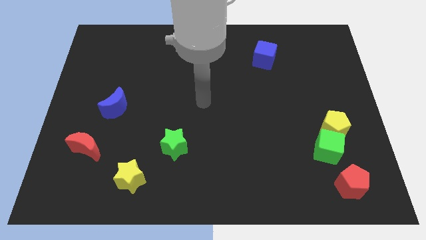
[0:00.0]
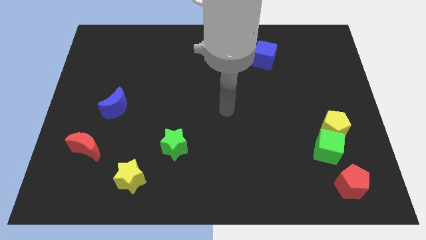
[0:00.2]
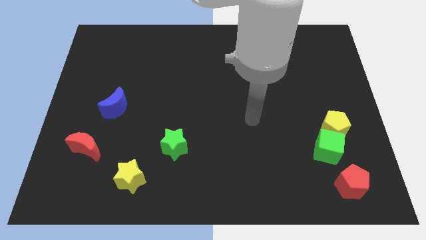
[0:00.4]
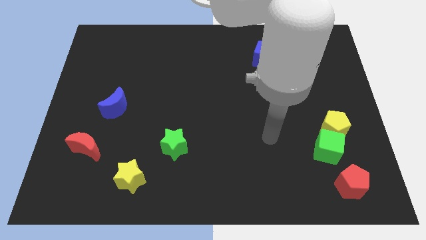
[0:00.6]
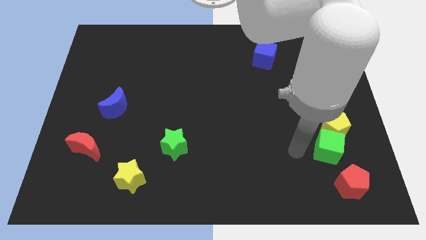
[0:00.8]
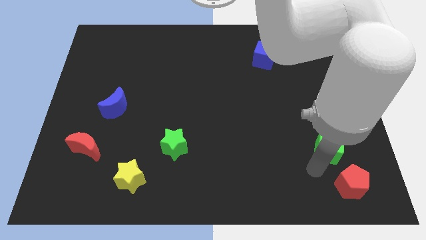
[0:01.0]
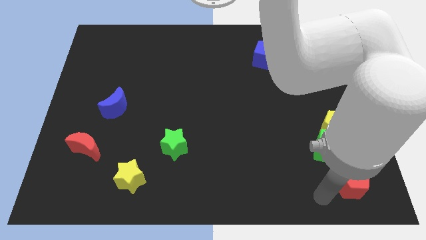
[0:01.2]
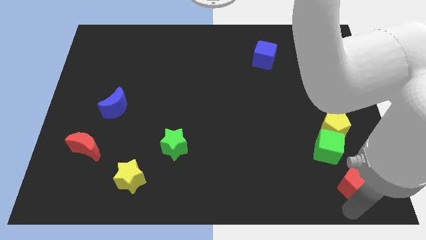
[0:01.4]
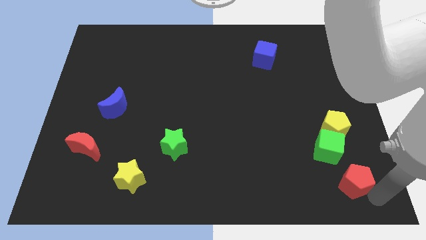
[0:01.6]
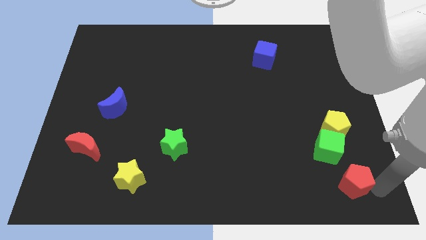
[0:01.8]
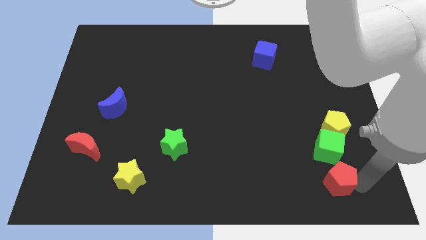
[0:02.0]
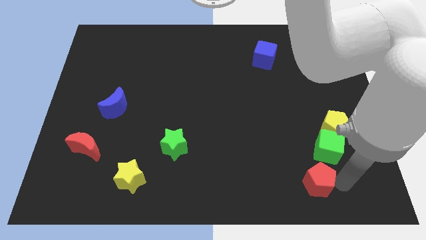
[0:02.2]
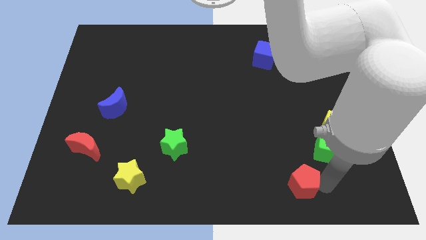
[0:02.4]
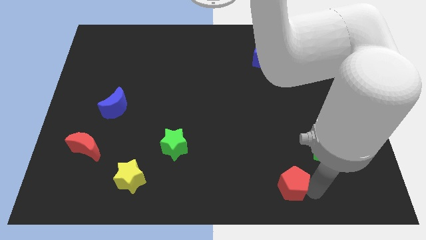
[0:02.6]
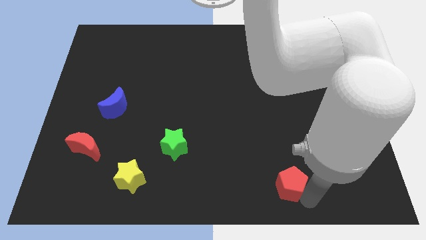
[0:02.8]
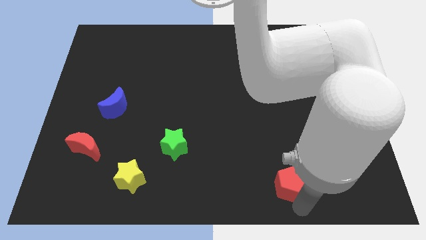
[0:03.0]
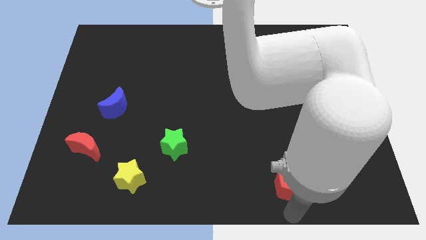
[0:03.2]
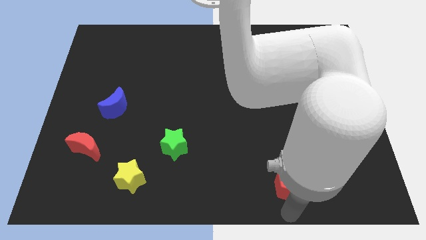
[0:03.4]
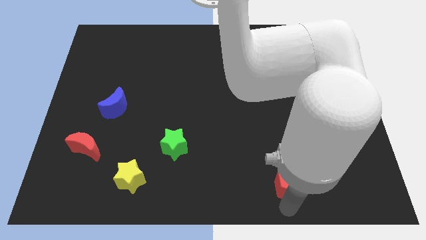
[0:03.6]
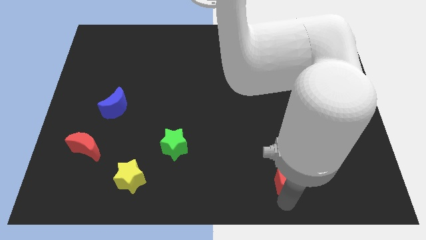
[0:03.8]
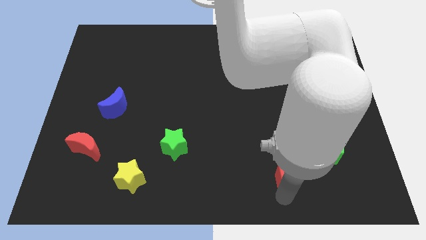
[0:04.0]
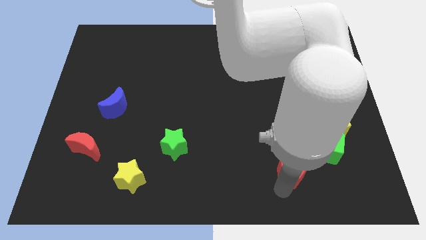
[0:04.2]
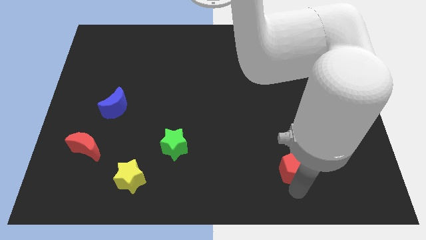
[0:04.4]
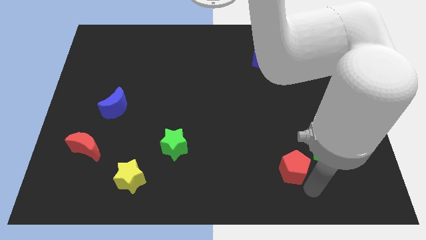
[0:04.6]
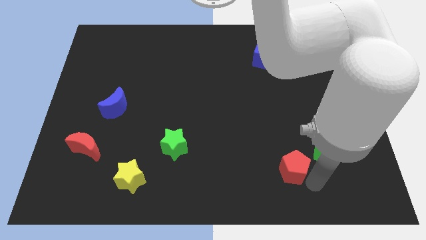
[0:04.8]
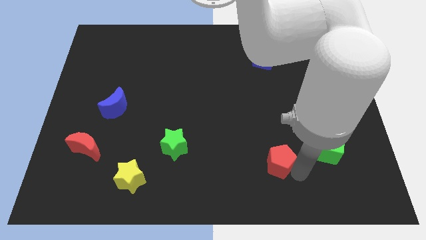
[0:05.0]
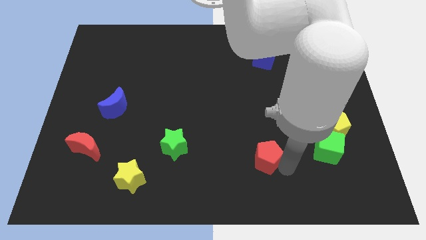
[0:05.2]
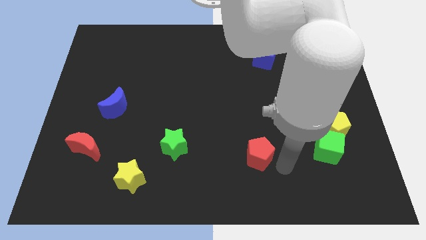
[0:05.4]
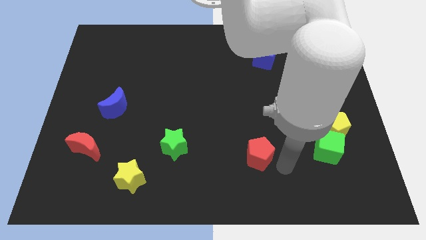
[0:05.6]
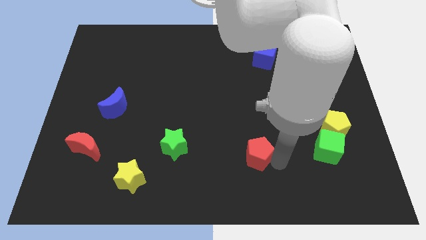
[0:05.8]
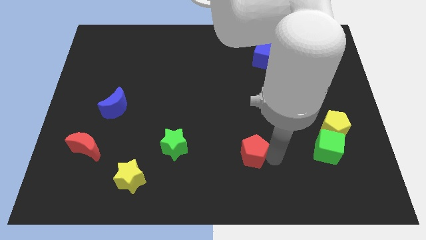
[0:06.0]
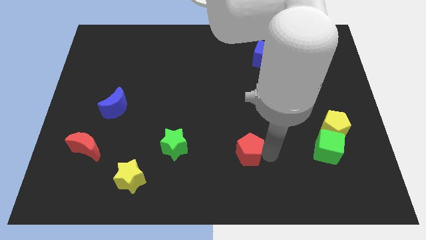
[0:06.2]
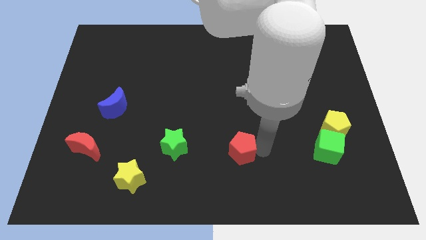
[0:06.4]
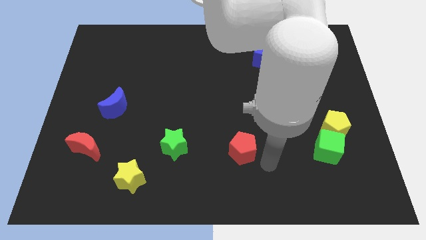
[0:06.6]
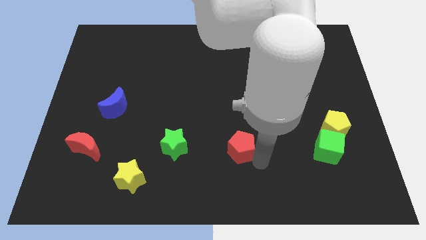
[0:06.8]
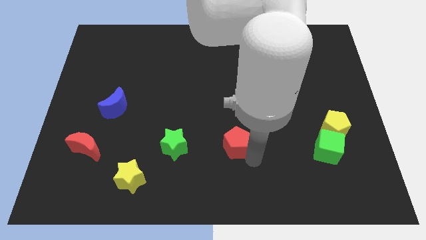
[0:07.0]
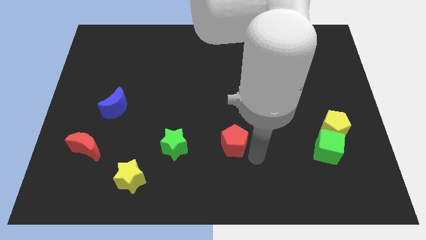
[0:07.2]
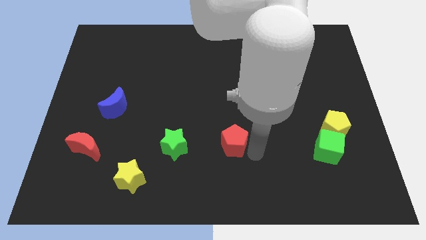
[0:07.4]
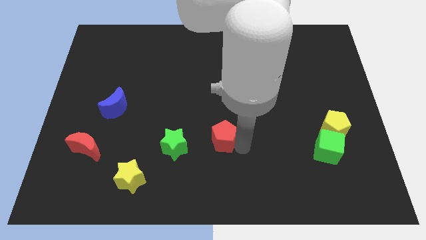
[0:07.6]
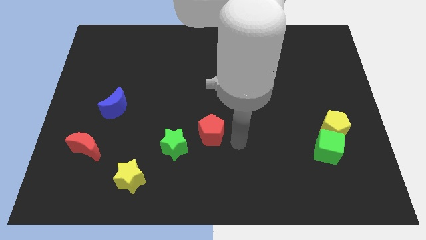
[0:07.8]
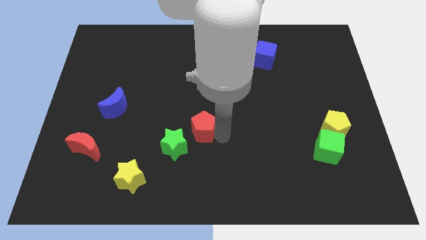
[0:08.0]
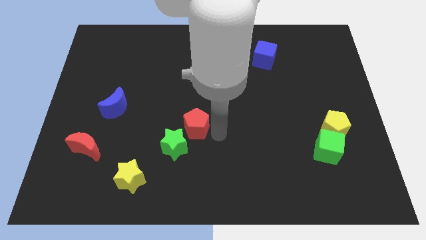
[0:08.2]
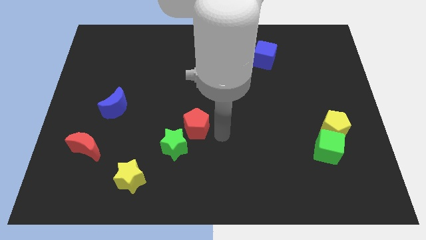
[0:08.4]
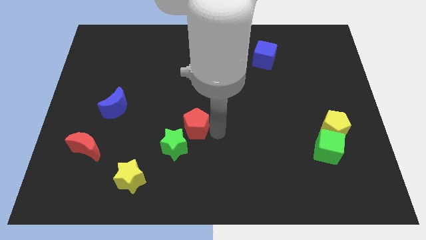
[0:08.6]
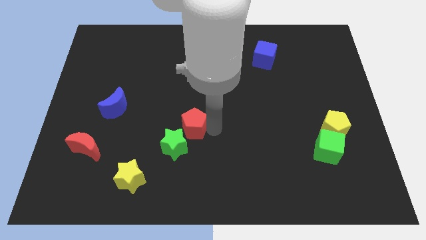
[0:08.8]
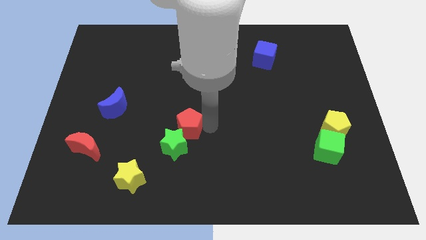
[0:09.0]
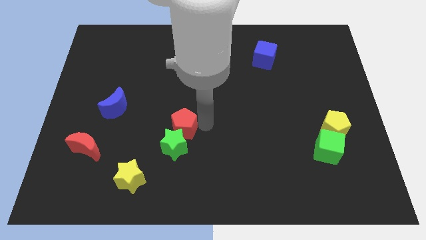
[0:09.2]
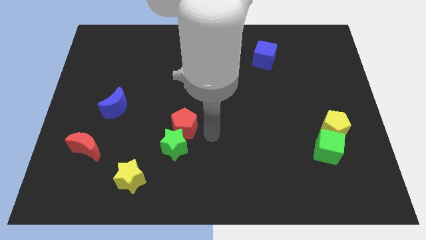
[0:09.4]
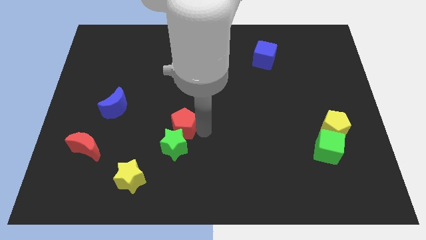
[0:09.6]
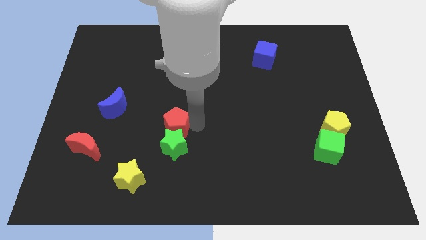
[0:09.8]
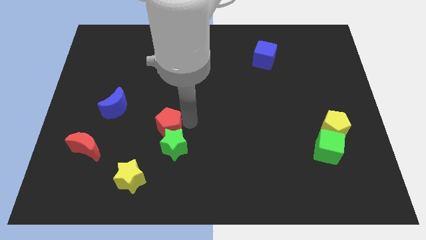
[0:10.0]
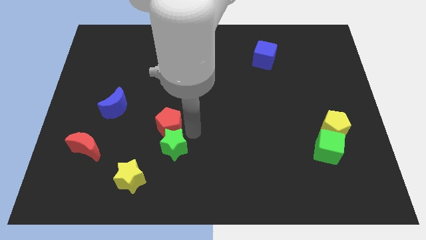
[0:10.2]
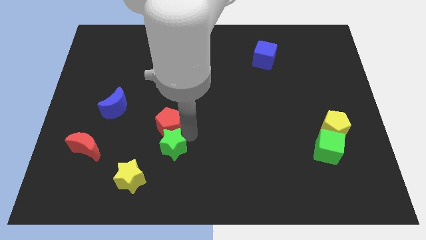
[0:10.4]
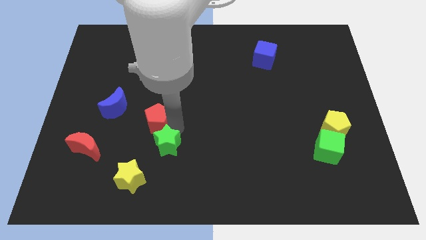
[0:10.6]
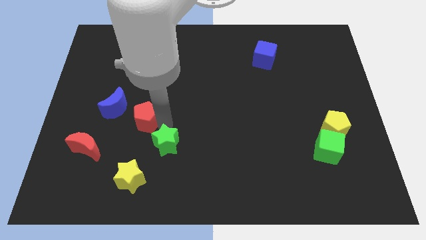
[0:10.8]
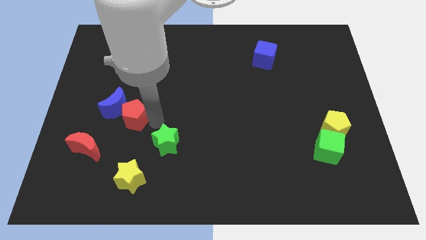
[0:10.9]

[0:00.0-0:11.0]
push the red pentagon to the blue moon

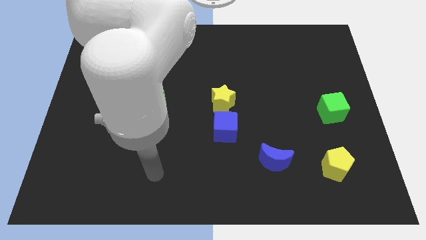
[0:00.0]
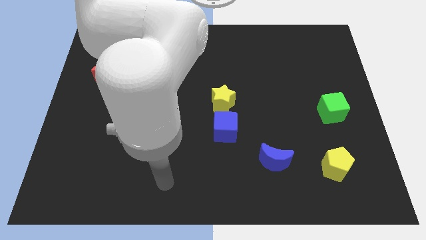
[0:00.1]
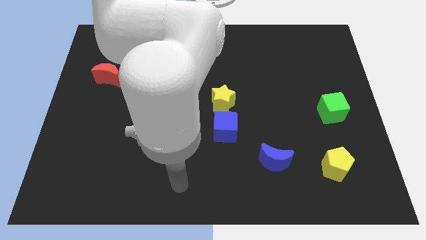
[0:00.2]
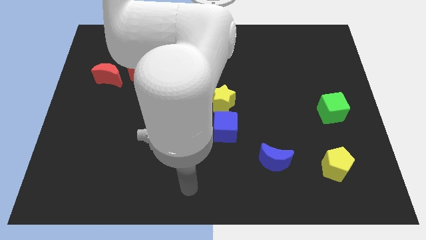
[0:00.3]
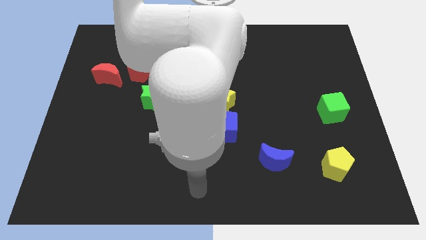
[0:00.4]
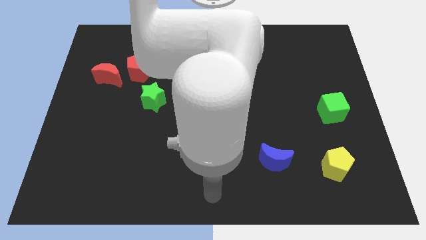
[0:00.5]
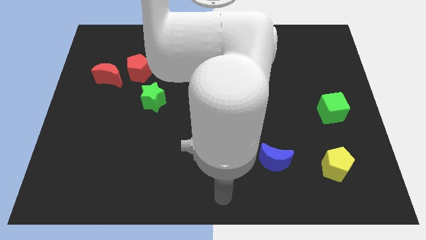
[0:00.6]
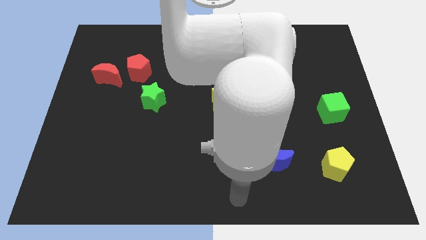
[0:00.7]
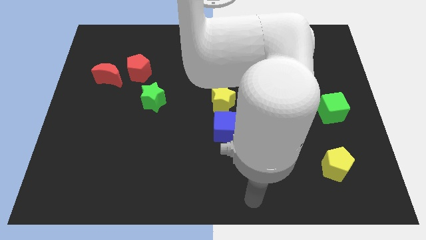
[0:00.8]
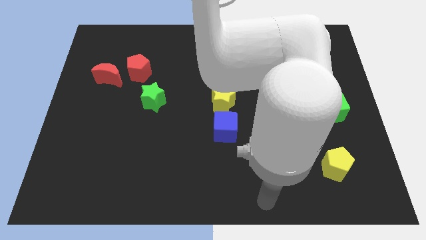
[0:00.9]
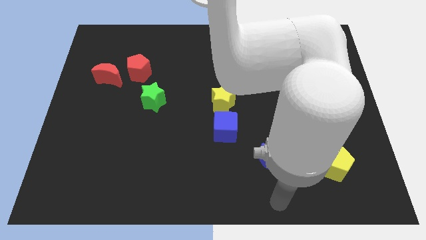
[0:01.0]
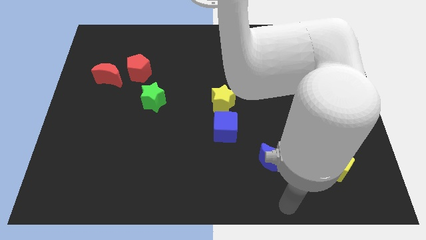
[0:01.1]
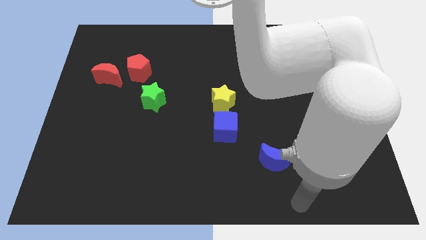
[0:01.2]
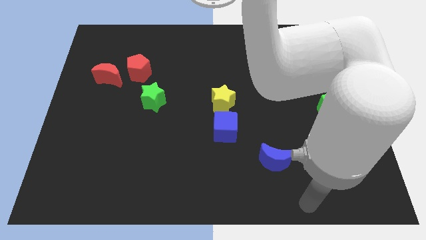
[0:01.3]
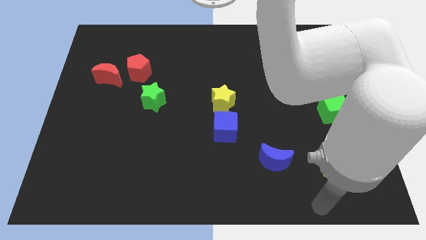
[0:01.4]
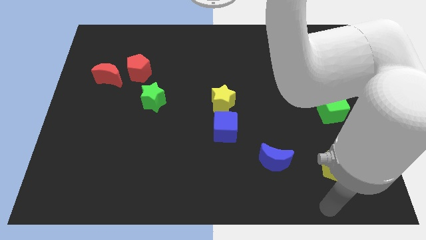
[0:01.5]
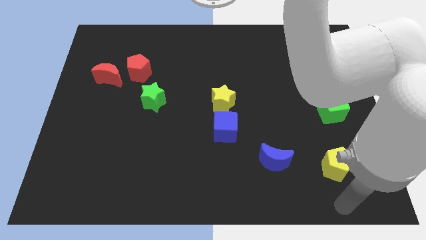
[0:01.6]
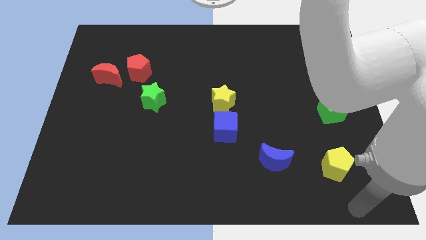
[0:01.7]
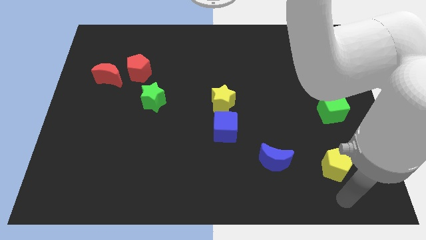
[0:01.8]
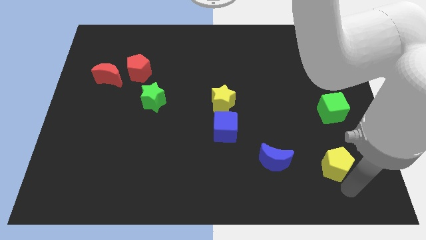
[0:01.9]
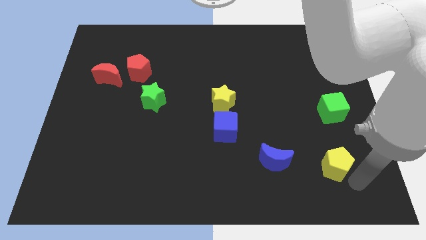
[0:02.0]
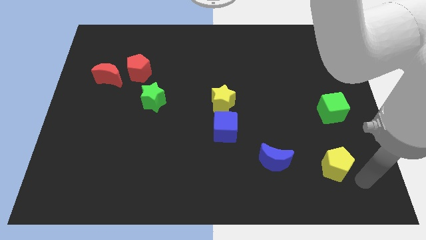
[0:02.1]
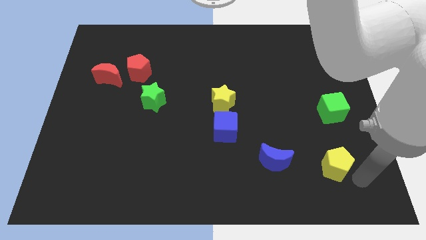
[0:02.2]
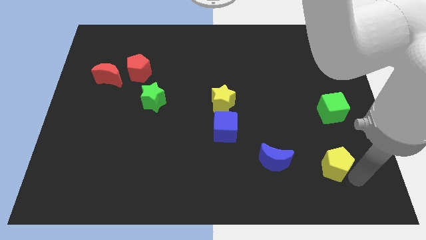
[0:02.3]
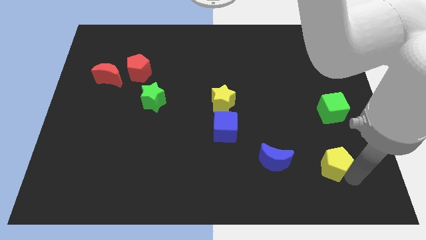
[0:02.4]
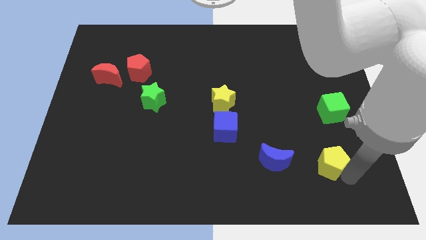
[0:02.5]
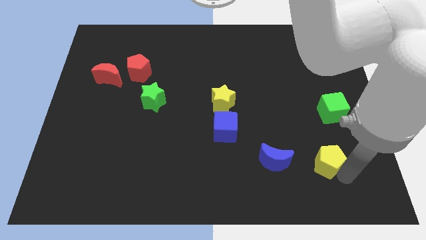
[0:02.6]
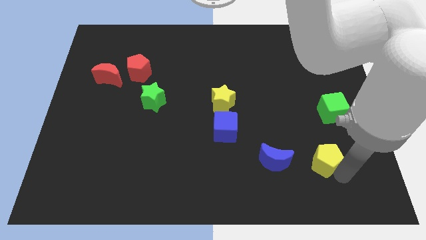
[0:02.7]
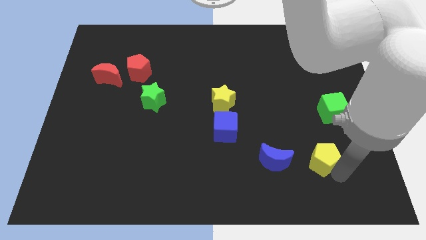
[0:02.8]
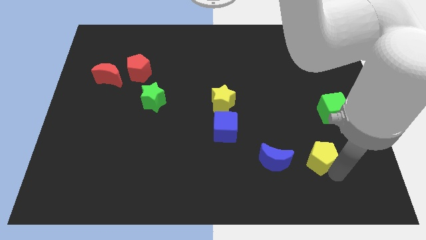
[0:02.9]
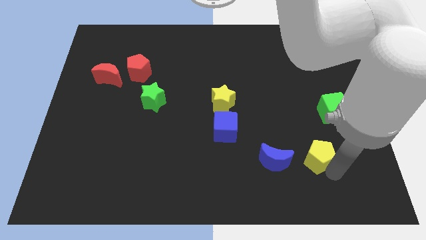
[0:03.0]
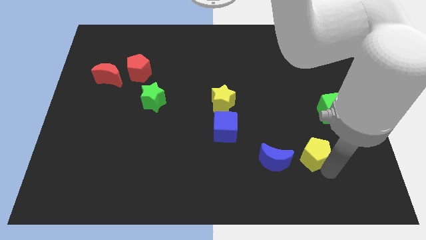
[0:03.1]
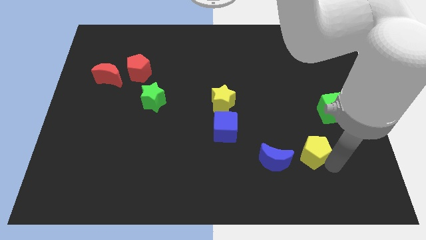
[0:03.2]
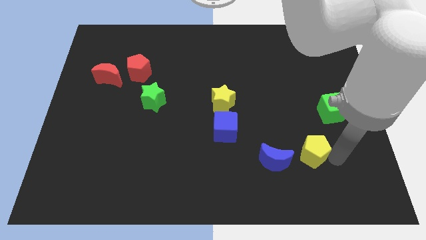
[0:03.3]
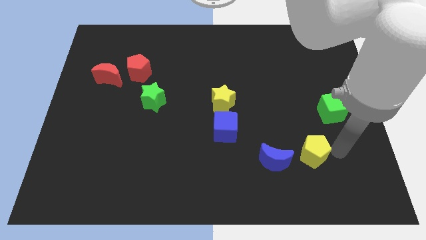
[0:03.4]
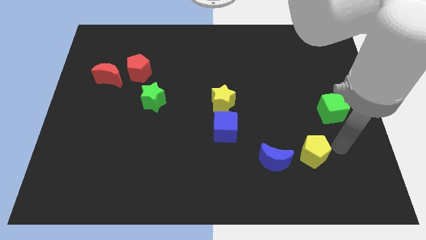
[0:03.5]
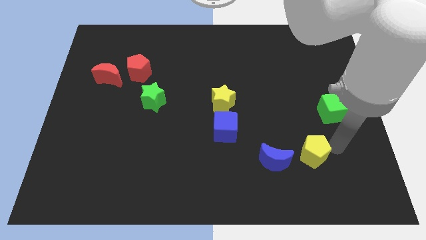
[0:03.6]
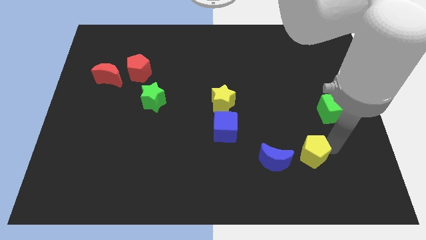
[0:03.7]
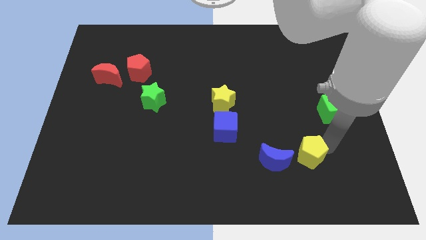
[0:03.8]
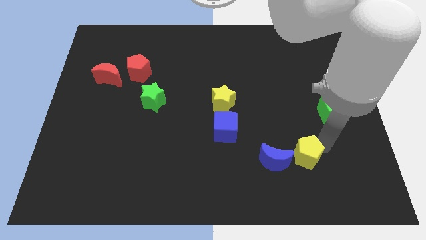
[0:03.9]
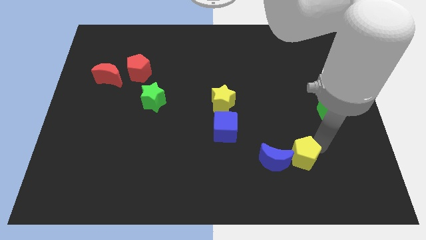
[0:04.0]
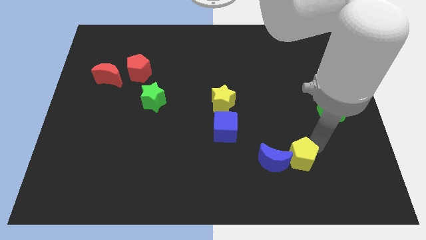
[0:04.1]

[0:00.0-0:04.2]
move the yellow pentagon close to the blue moon
